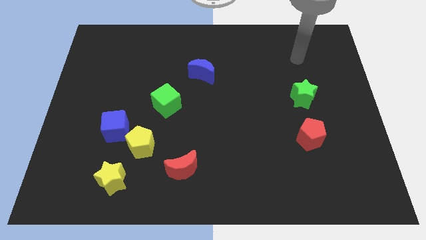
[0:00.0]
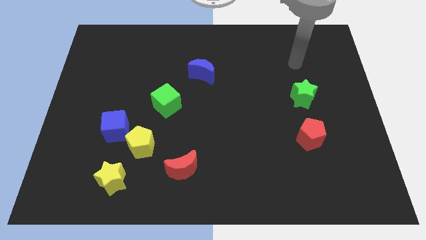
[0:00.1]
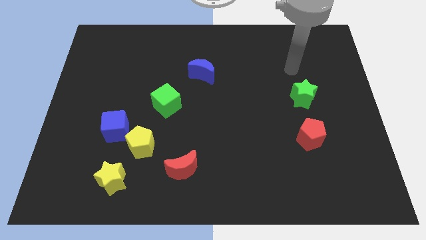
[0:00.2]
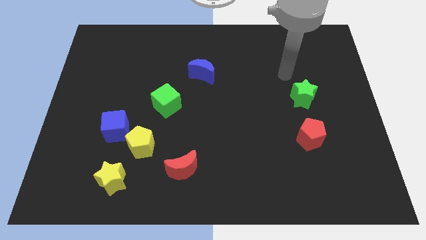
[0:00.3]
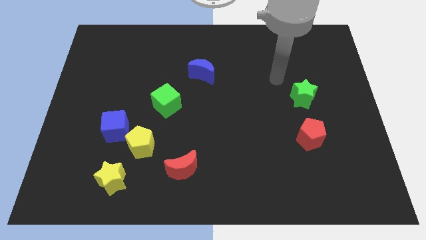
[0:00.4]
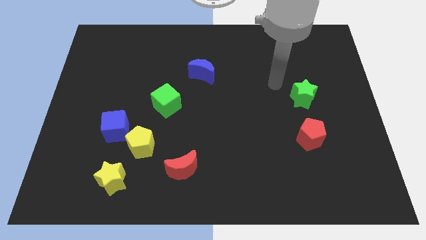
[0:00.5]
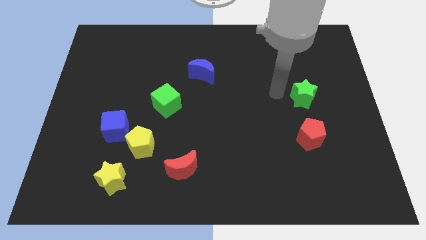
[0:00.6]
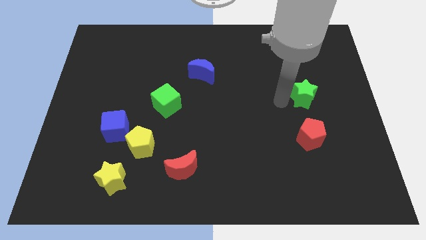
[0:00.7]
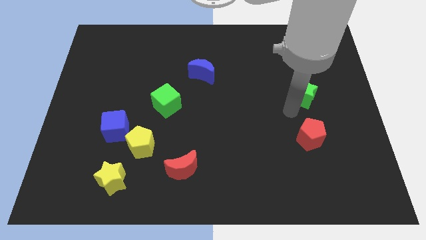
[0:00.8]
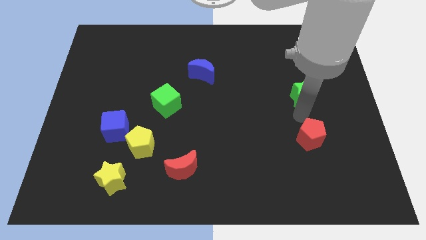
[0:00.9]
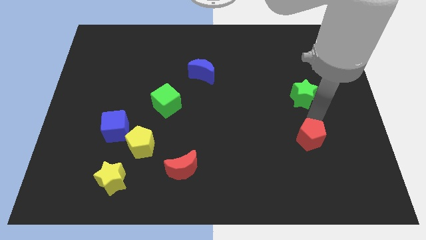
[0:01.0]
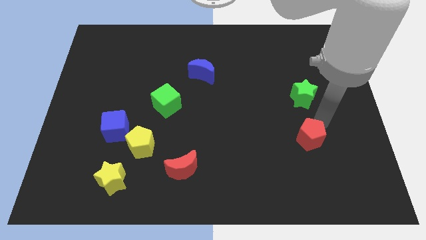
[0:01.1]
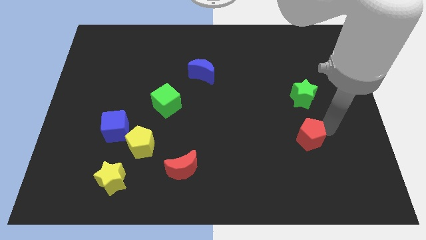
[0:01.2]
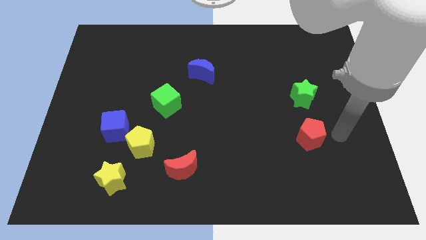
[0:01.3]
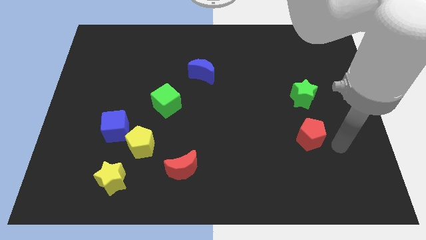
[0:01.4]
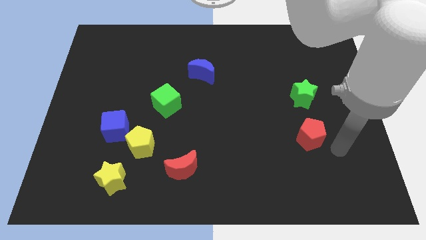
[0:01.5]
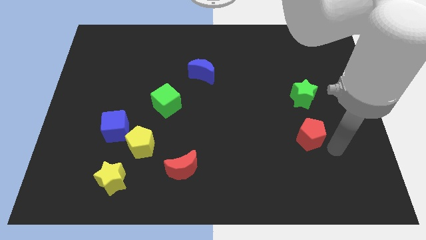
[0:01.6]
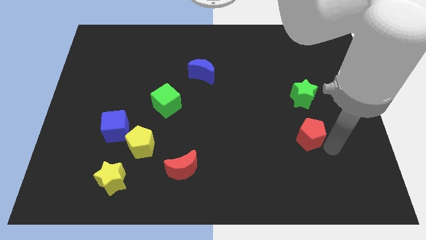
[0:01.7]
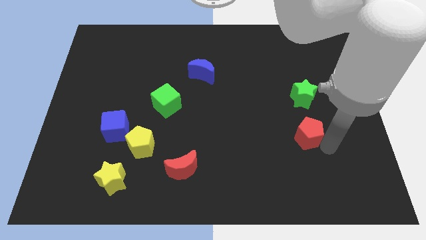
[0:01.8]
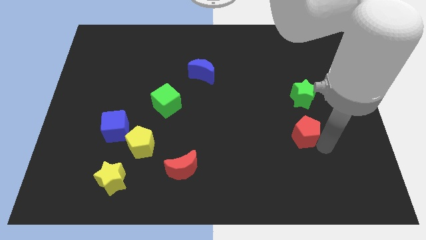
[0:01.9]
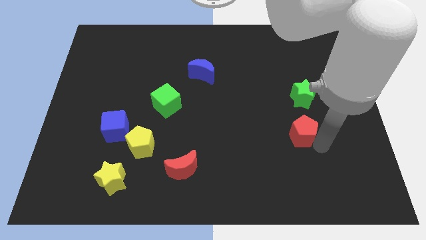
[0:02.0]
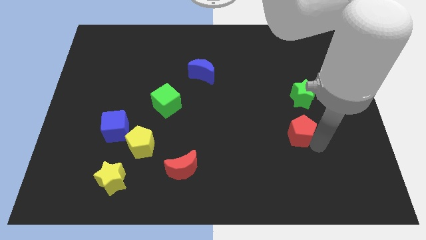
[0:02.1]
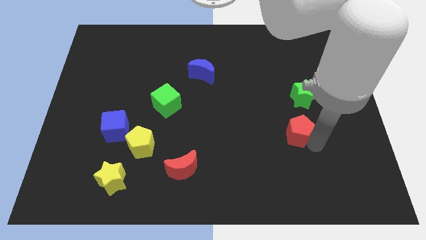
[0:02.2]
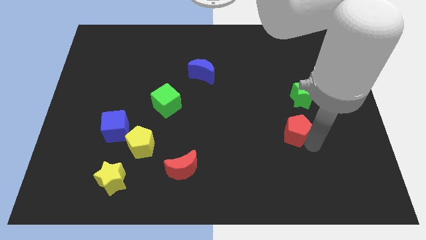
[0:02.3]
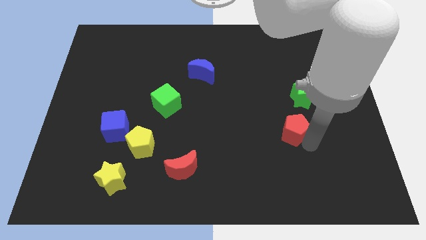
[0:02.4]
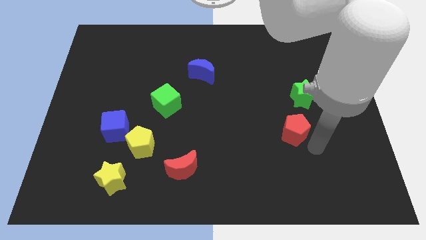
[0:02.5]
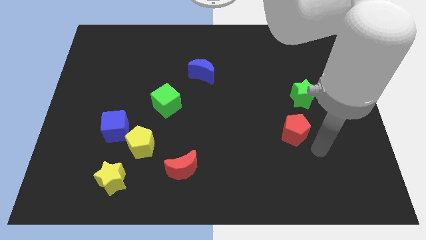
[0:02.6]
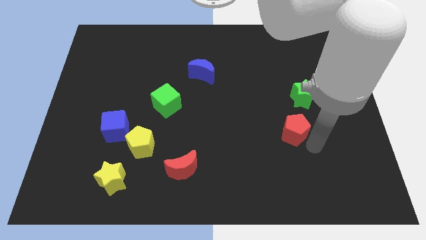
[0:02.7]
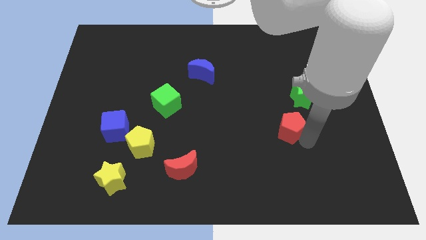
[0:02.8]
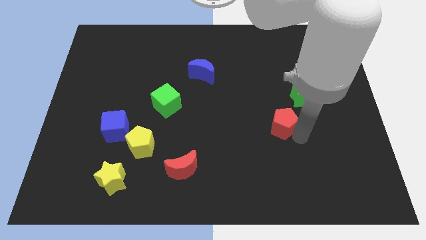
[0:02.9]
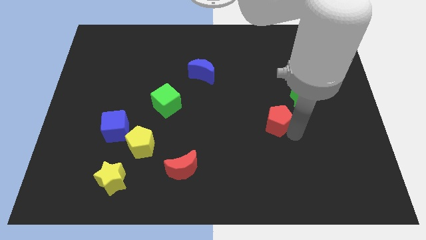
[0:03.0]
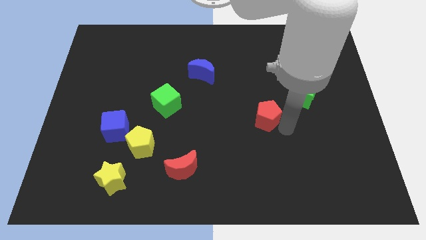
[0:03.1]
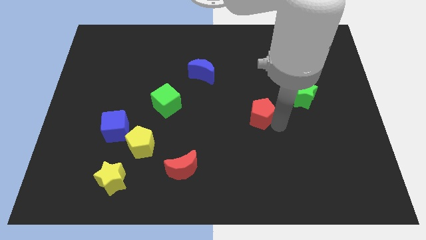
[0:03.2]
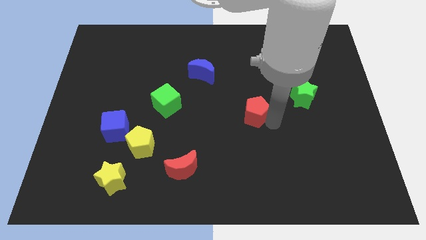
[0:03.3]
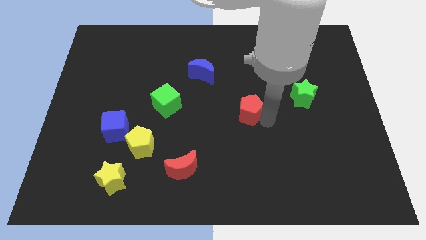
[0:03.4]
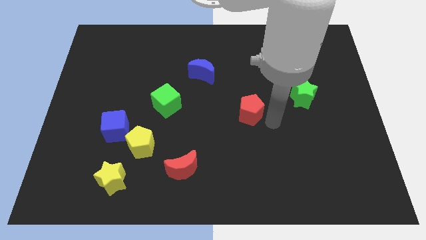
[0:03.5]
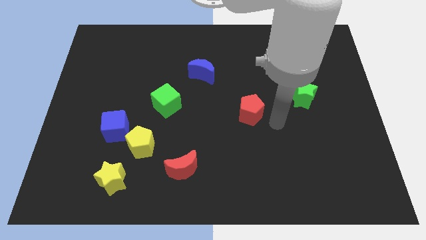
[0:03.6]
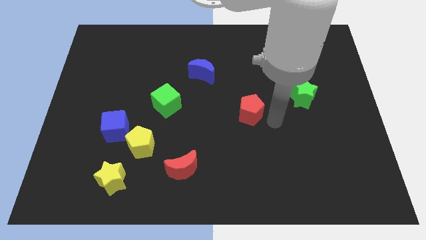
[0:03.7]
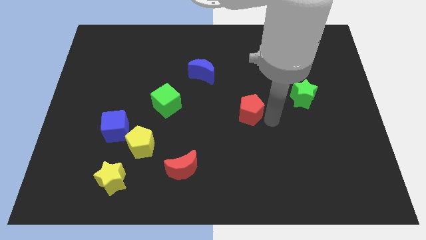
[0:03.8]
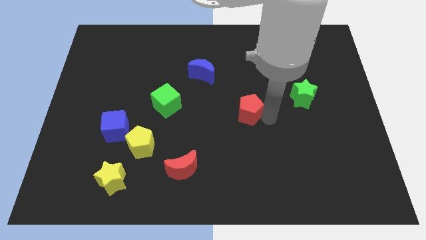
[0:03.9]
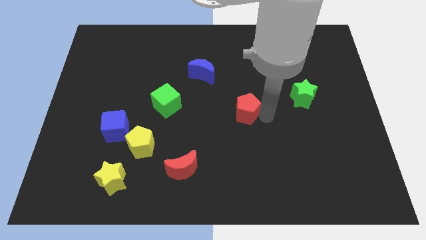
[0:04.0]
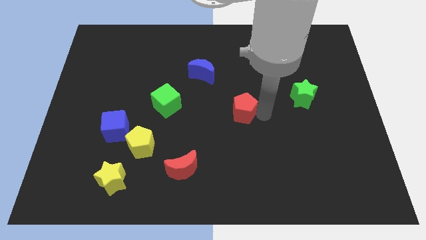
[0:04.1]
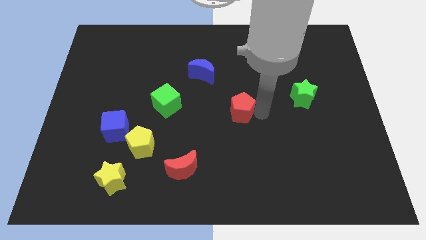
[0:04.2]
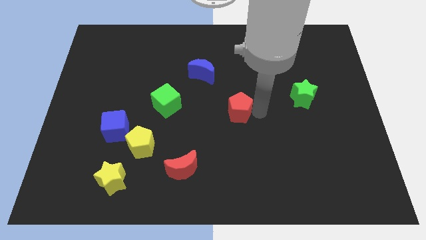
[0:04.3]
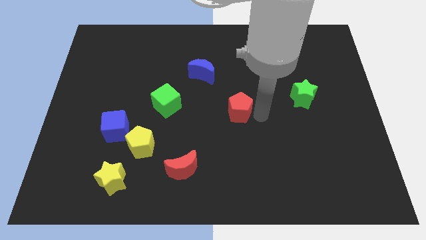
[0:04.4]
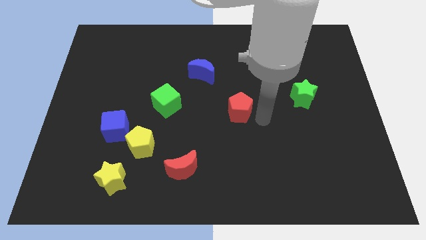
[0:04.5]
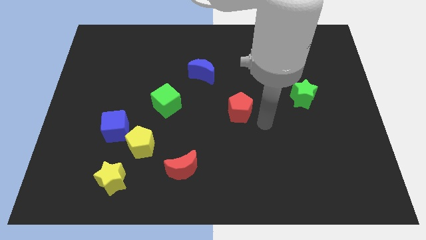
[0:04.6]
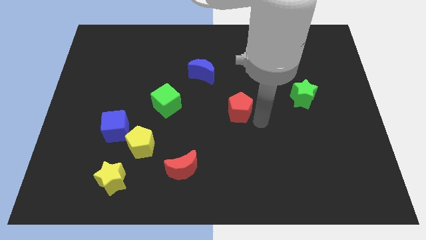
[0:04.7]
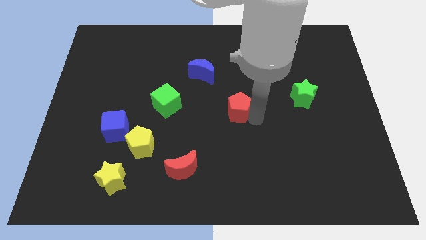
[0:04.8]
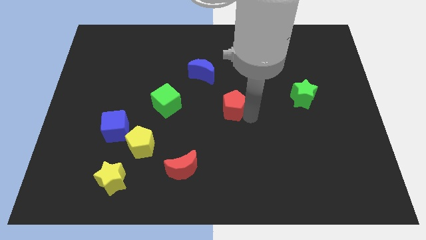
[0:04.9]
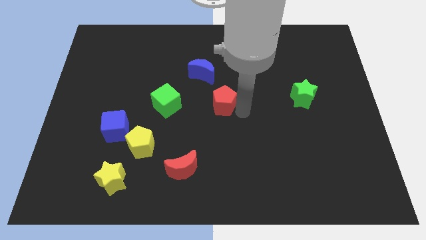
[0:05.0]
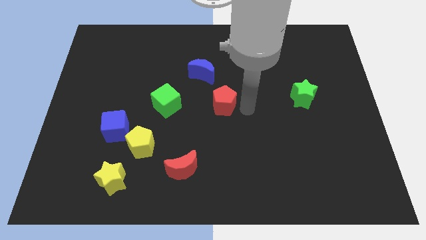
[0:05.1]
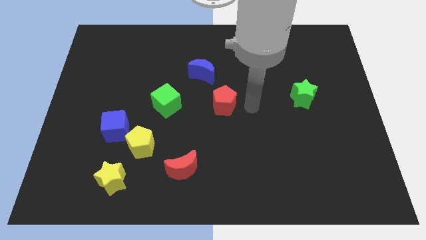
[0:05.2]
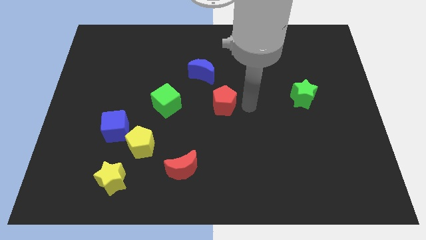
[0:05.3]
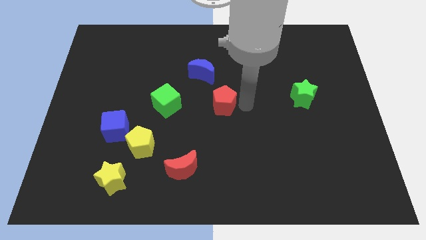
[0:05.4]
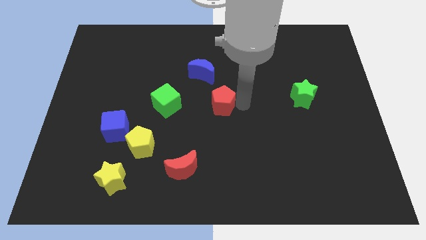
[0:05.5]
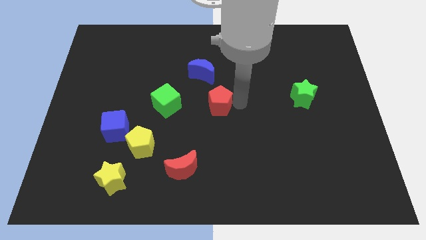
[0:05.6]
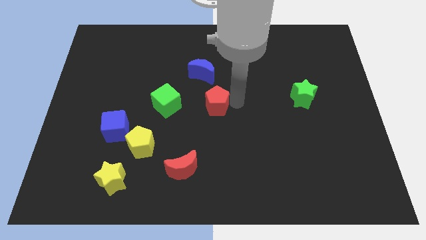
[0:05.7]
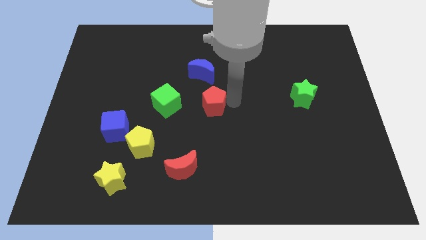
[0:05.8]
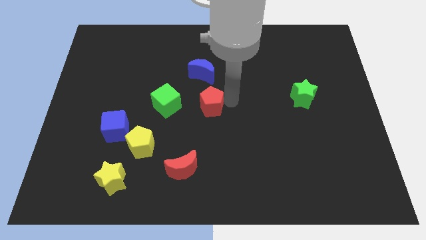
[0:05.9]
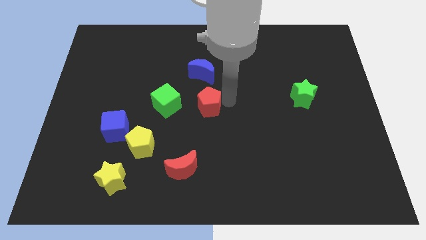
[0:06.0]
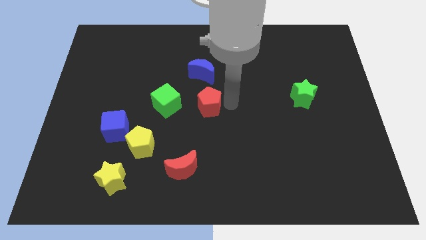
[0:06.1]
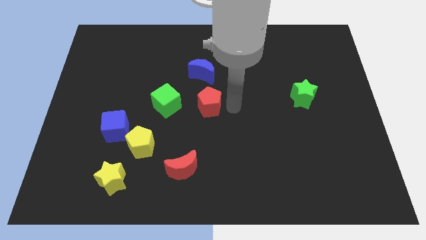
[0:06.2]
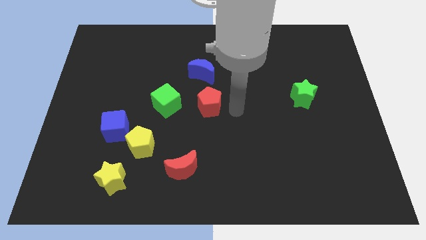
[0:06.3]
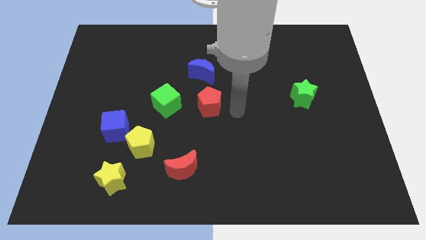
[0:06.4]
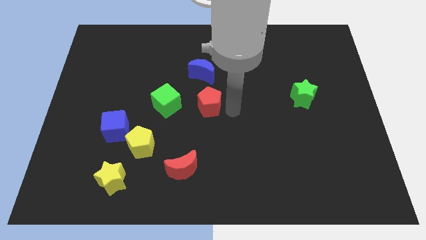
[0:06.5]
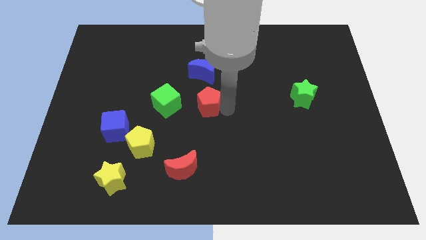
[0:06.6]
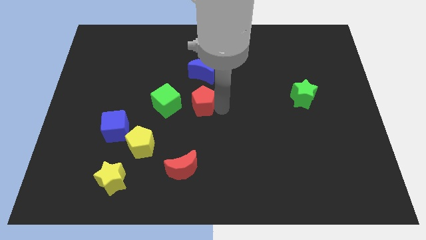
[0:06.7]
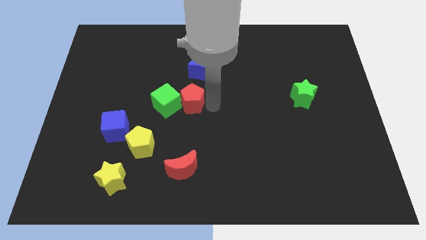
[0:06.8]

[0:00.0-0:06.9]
push the red pentagon to the green cube

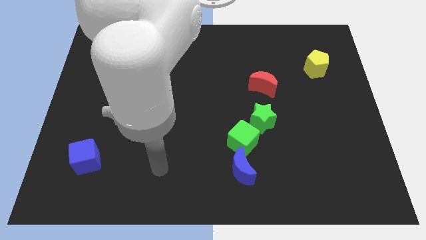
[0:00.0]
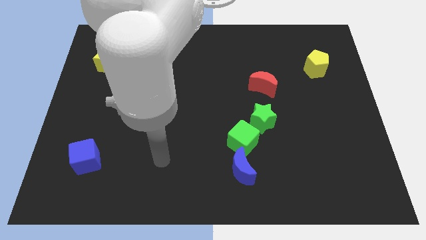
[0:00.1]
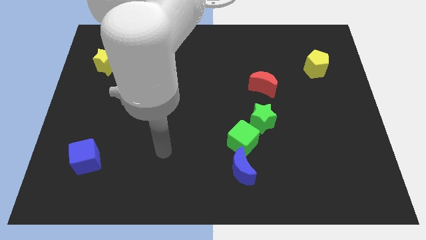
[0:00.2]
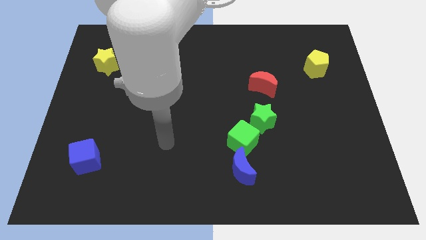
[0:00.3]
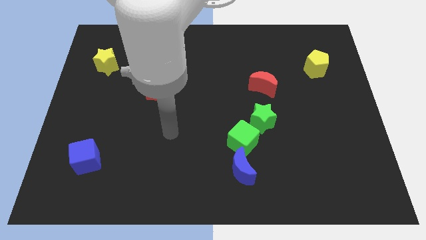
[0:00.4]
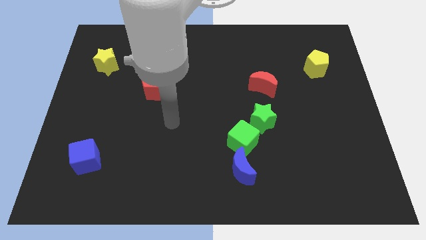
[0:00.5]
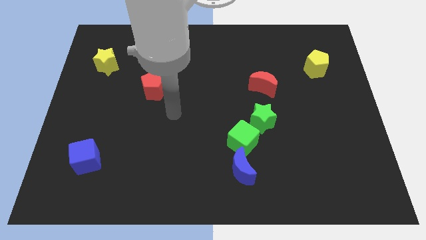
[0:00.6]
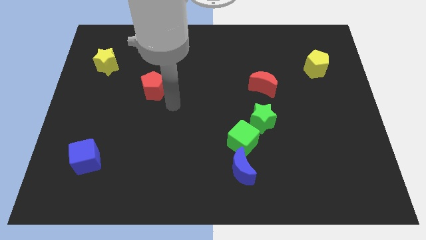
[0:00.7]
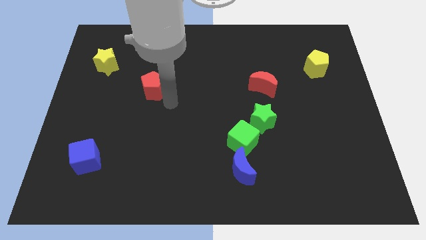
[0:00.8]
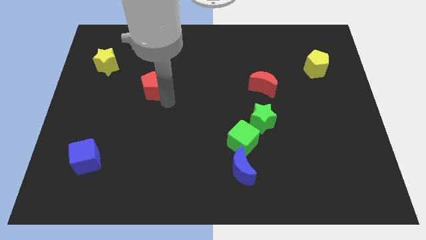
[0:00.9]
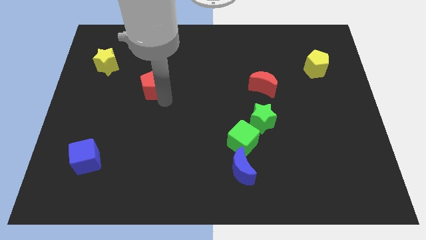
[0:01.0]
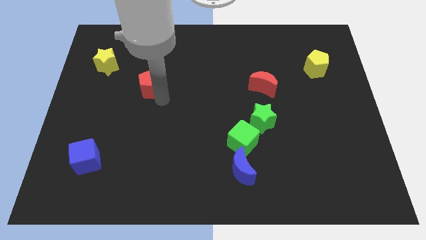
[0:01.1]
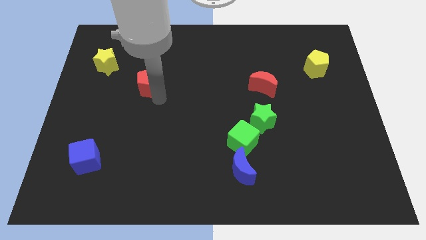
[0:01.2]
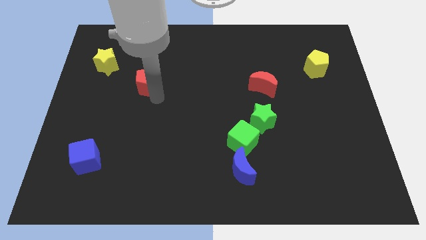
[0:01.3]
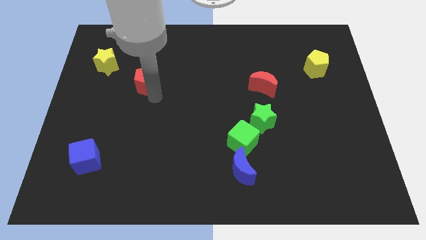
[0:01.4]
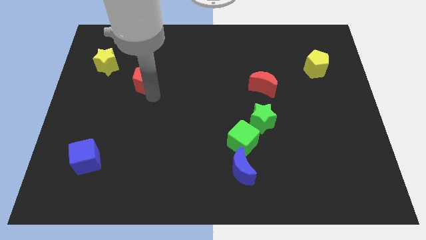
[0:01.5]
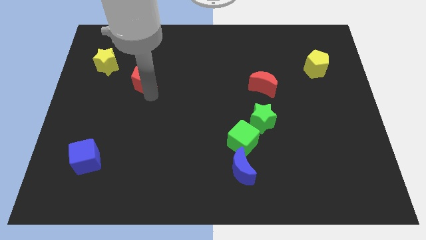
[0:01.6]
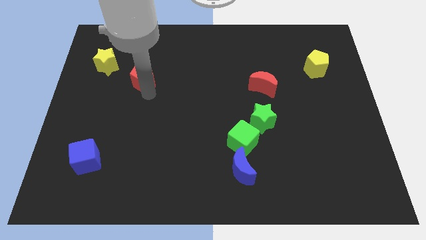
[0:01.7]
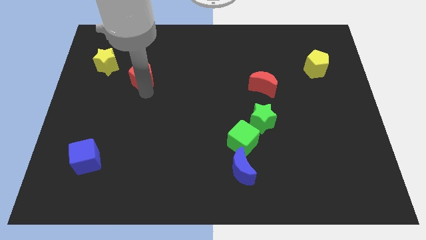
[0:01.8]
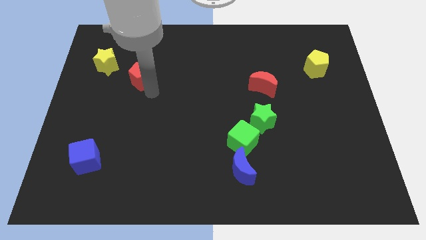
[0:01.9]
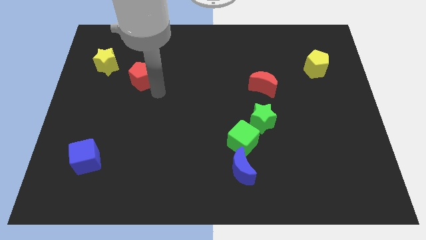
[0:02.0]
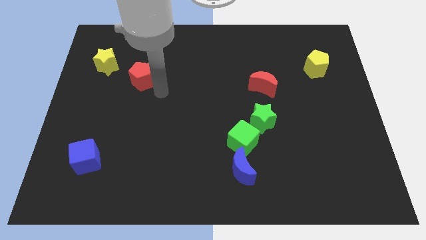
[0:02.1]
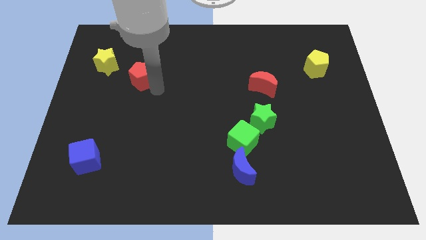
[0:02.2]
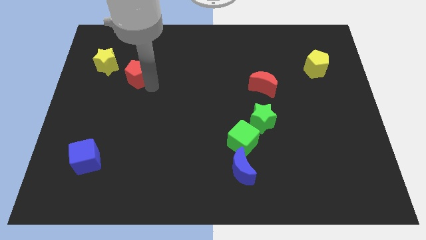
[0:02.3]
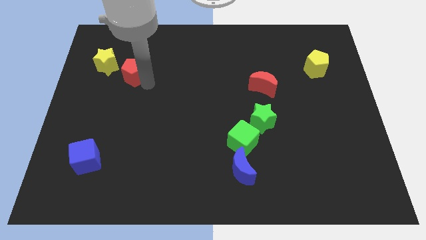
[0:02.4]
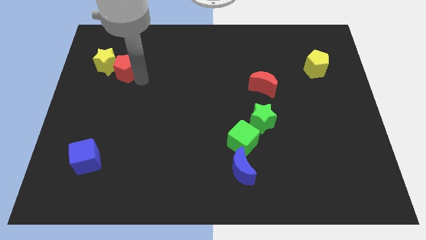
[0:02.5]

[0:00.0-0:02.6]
put the red pentagon to the yellow star
